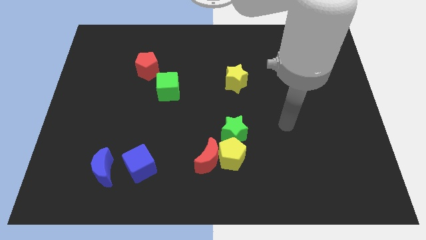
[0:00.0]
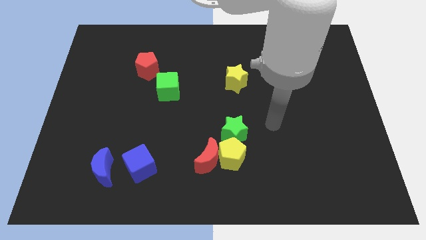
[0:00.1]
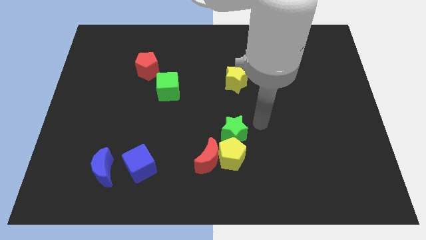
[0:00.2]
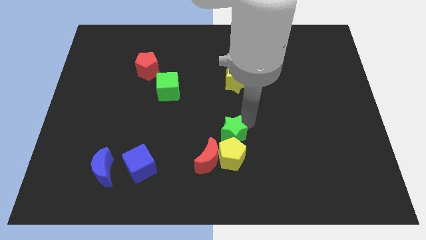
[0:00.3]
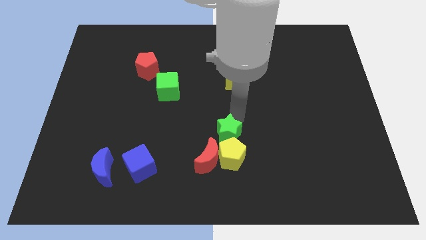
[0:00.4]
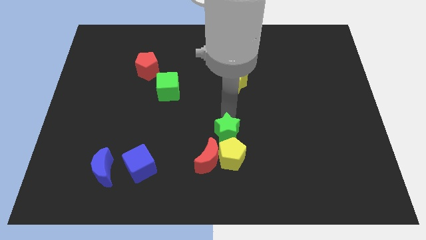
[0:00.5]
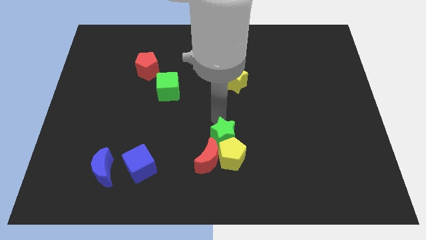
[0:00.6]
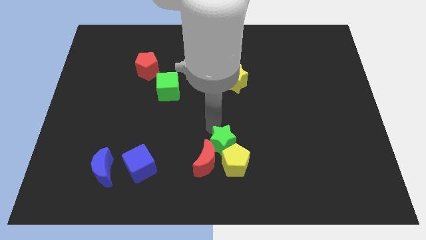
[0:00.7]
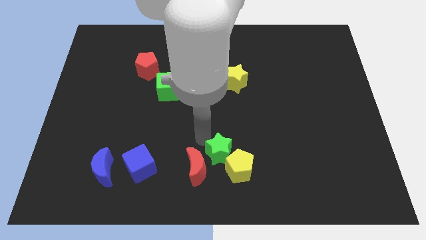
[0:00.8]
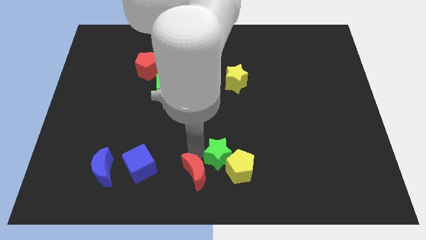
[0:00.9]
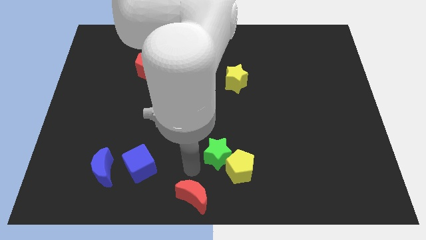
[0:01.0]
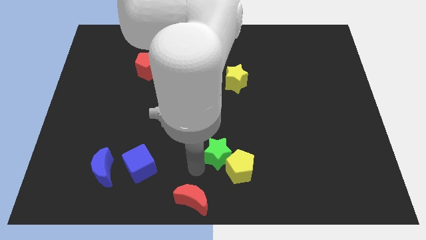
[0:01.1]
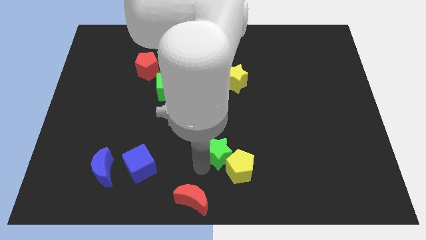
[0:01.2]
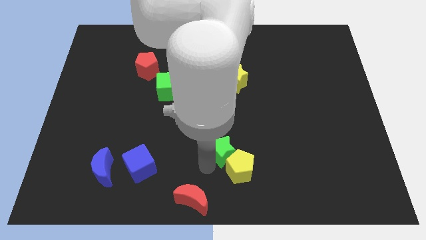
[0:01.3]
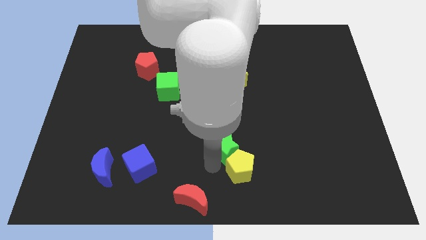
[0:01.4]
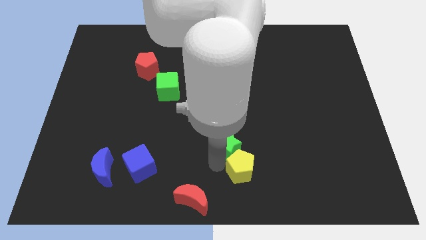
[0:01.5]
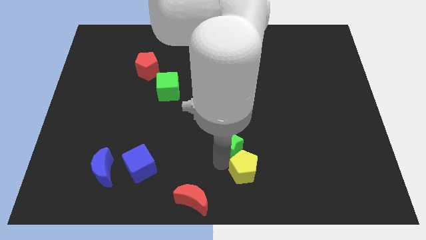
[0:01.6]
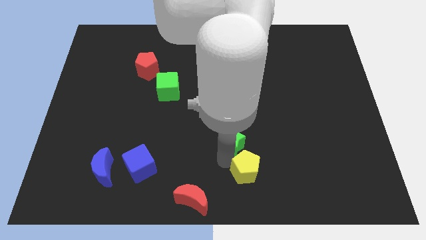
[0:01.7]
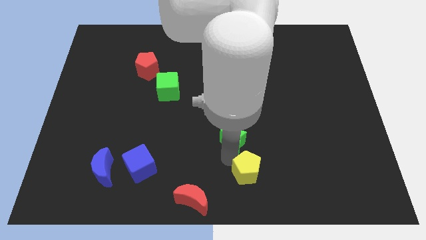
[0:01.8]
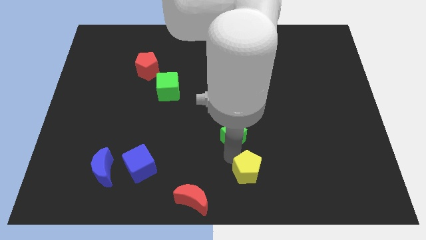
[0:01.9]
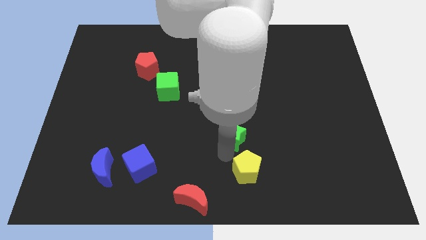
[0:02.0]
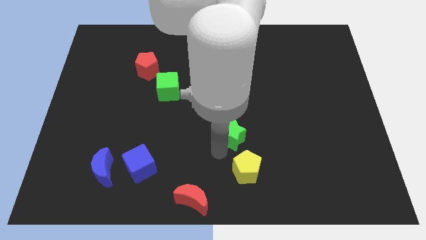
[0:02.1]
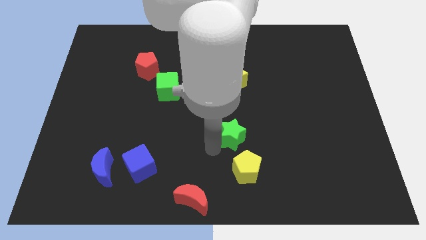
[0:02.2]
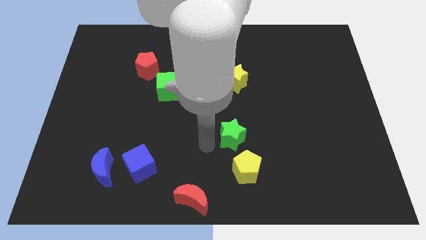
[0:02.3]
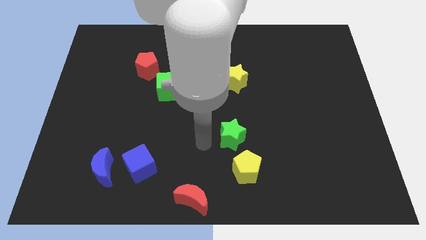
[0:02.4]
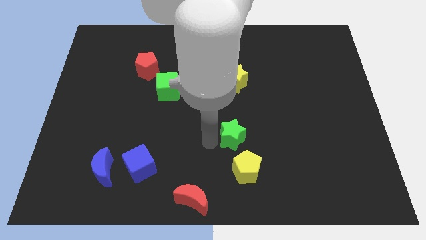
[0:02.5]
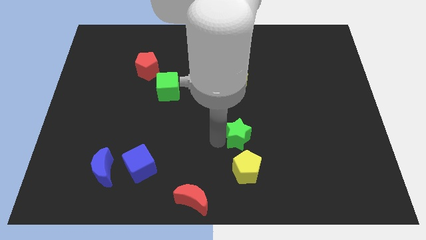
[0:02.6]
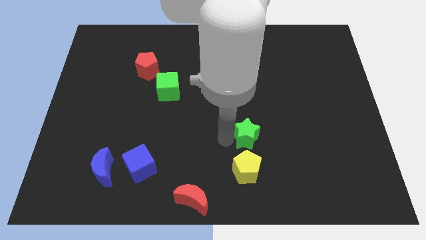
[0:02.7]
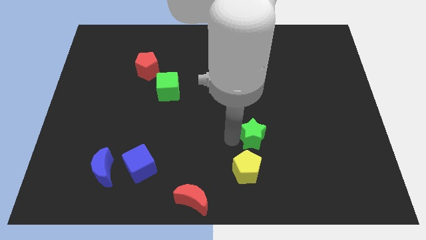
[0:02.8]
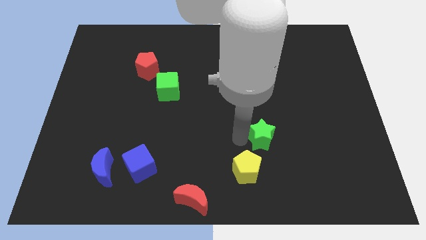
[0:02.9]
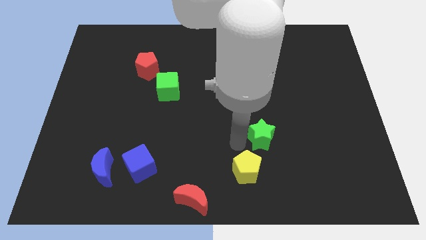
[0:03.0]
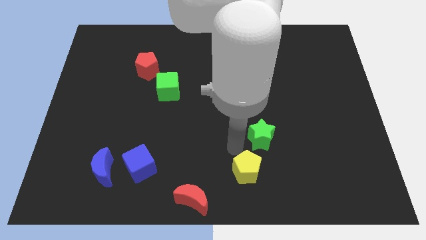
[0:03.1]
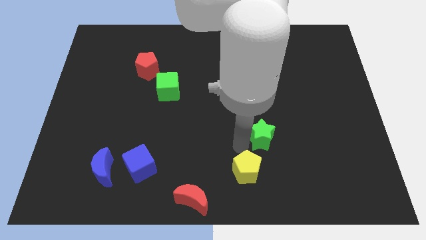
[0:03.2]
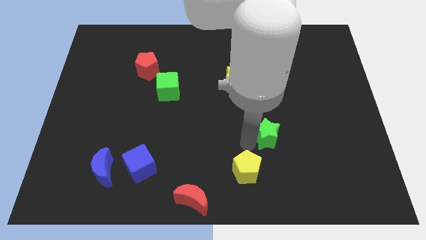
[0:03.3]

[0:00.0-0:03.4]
move the green star slightly to the right

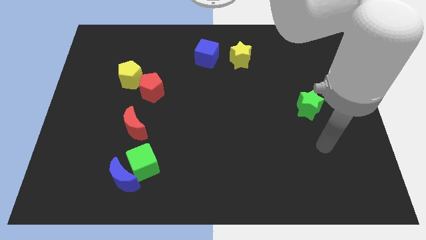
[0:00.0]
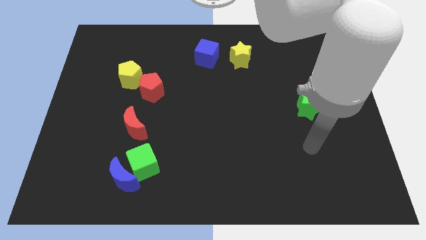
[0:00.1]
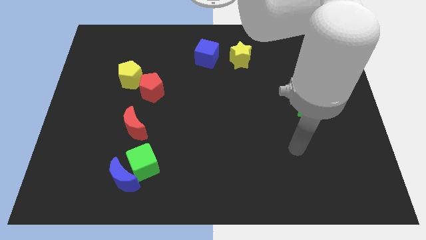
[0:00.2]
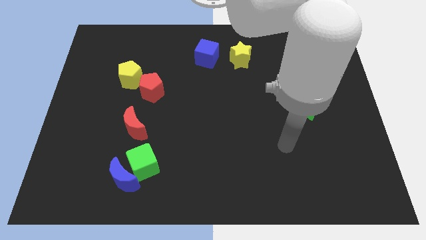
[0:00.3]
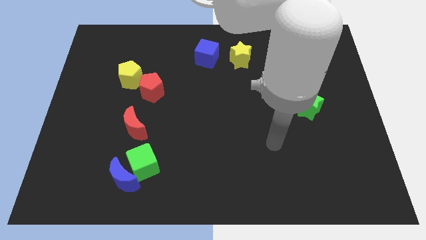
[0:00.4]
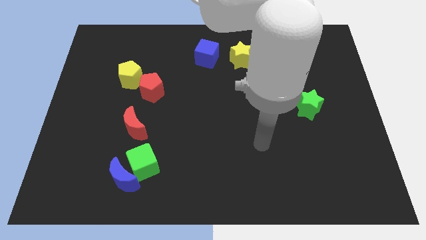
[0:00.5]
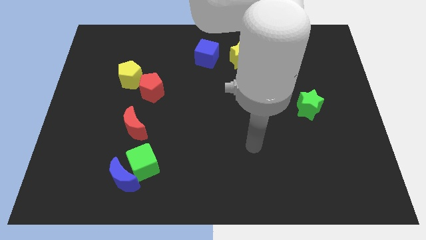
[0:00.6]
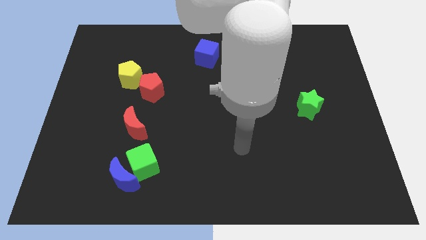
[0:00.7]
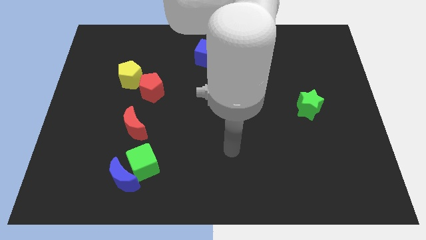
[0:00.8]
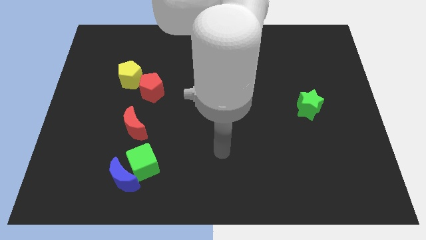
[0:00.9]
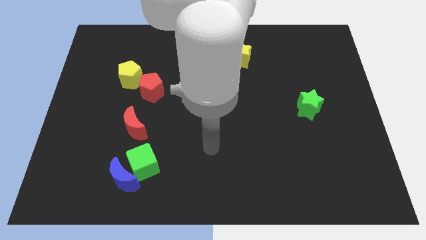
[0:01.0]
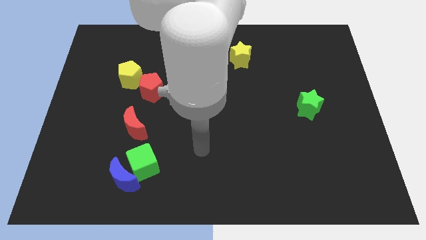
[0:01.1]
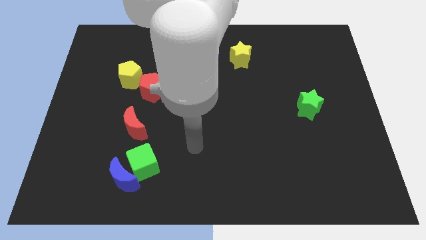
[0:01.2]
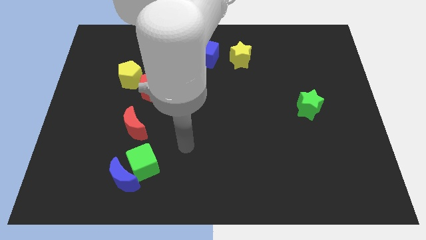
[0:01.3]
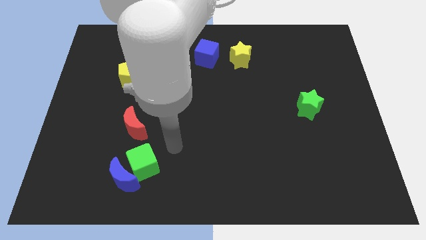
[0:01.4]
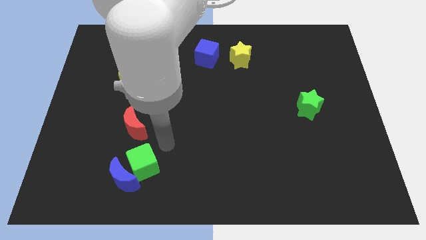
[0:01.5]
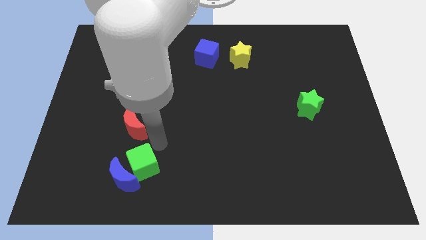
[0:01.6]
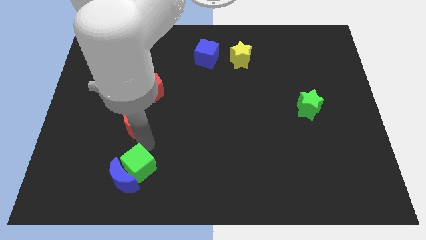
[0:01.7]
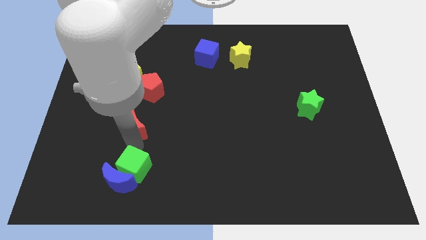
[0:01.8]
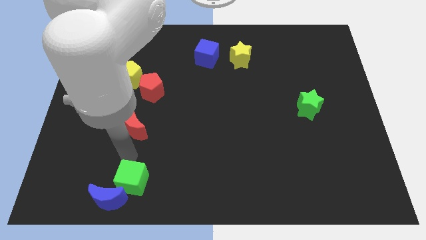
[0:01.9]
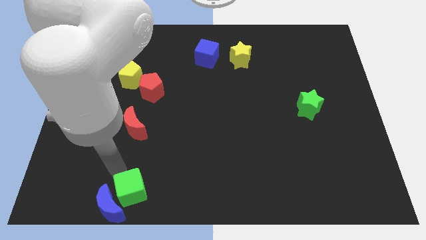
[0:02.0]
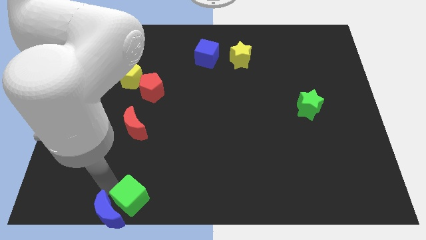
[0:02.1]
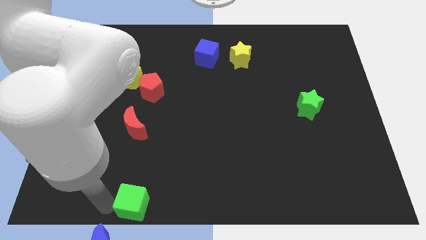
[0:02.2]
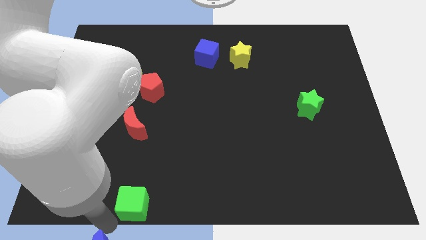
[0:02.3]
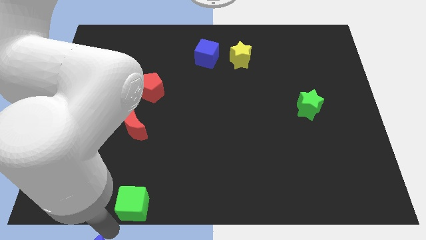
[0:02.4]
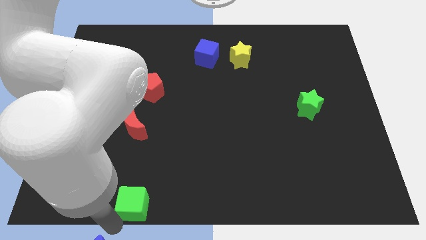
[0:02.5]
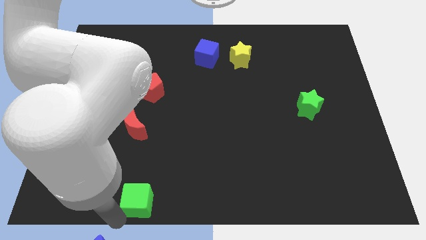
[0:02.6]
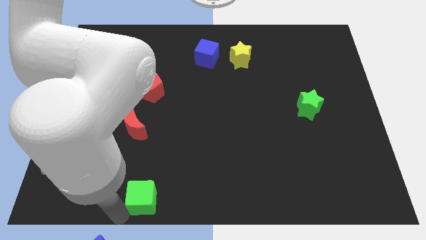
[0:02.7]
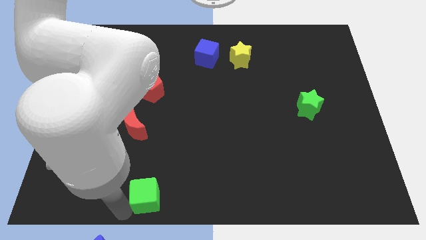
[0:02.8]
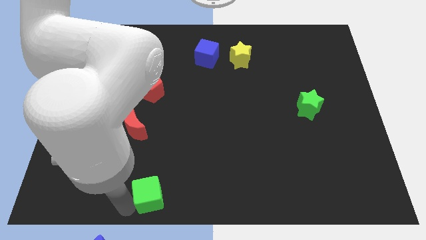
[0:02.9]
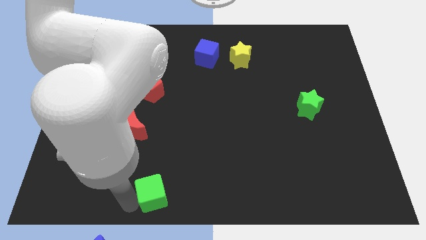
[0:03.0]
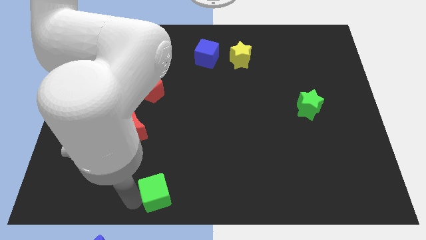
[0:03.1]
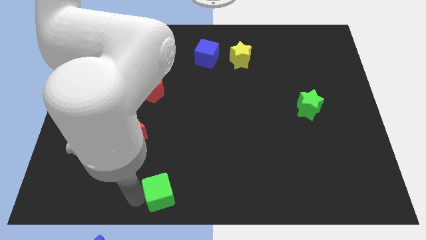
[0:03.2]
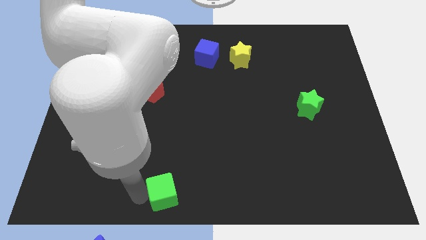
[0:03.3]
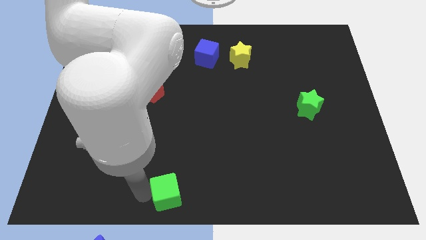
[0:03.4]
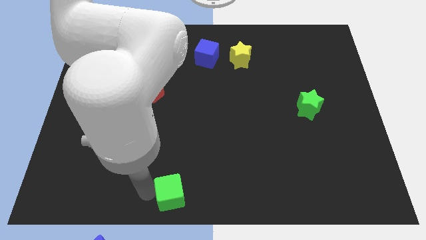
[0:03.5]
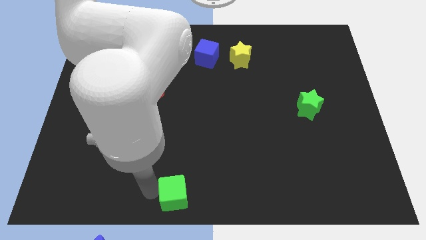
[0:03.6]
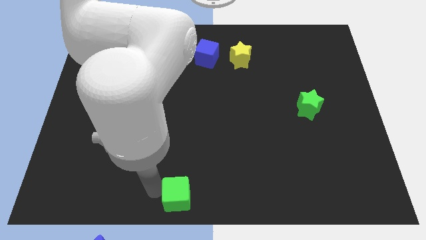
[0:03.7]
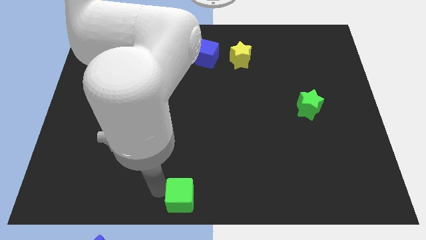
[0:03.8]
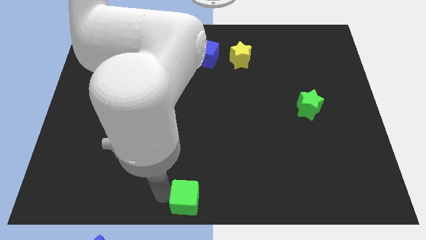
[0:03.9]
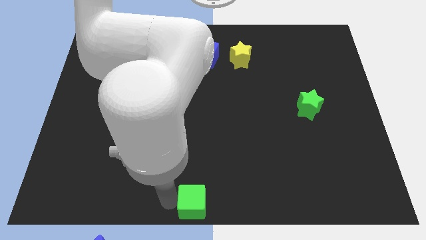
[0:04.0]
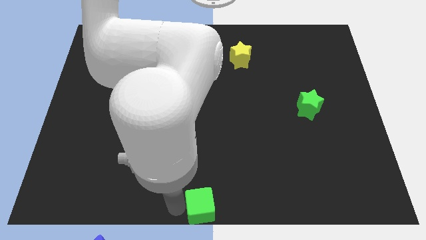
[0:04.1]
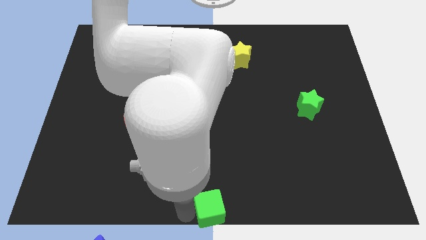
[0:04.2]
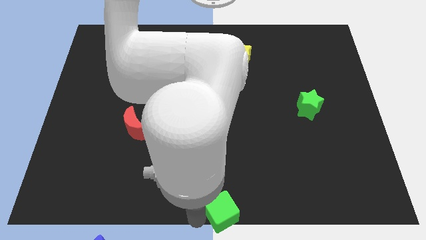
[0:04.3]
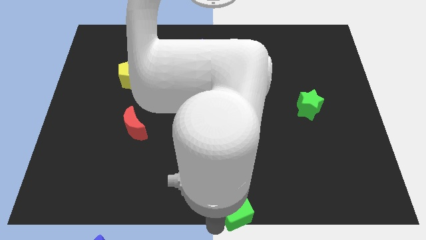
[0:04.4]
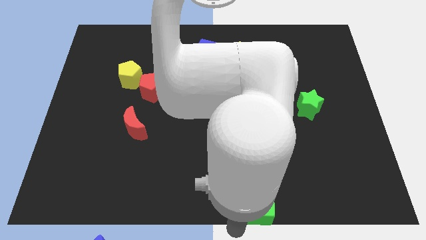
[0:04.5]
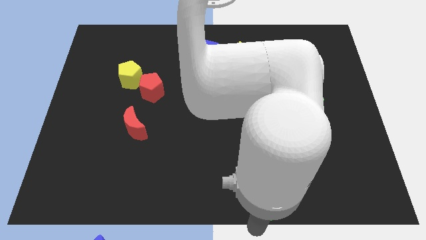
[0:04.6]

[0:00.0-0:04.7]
slide the green cube right

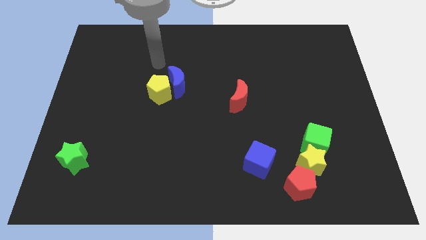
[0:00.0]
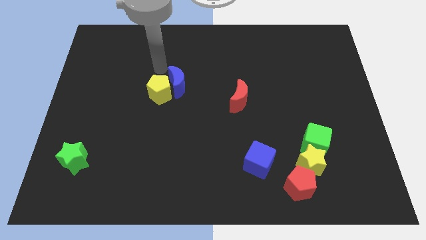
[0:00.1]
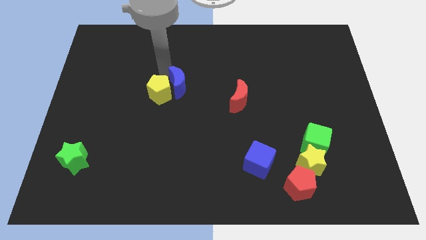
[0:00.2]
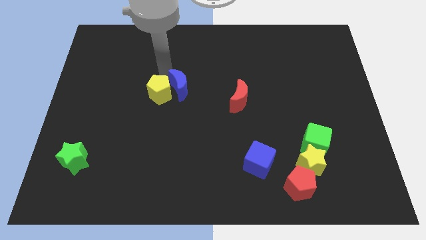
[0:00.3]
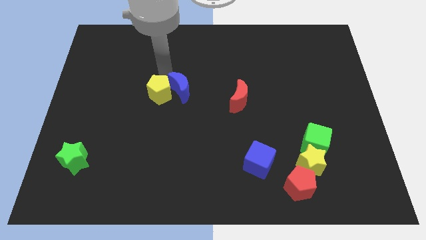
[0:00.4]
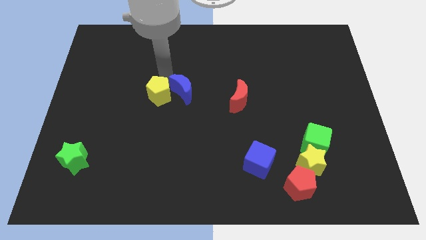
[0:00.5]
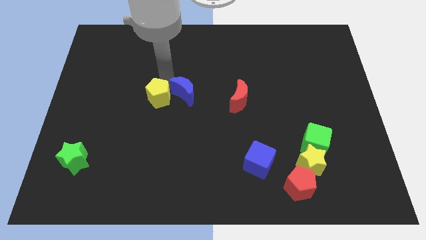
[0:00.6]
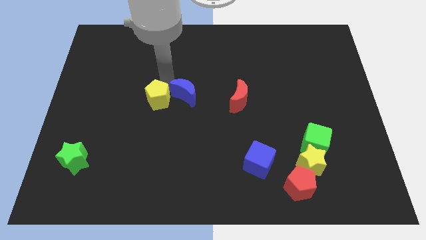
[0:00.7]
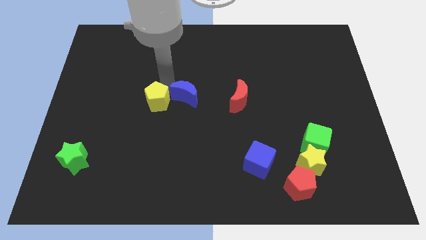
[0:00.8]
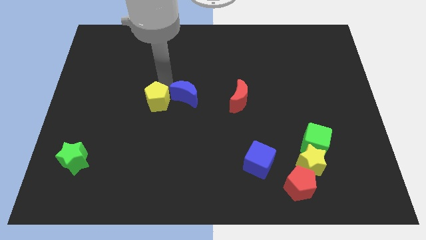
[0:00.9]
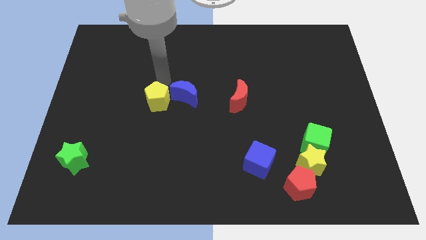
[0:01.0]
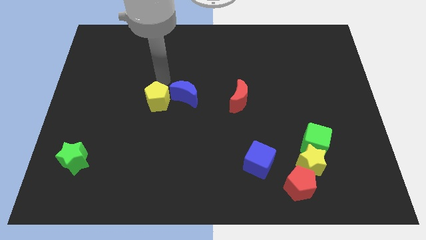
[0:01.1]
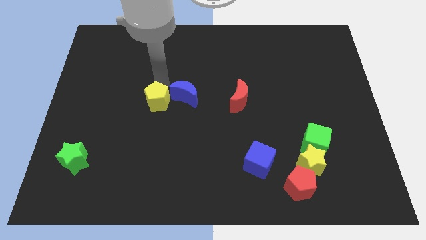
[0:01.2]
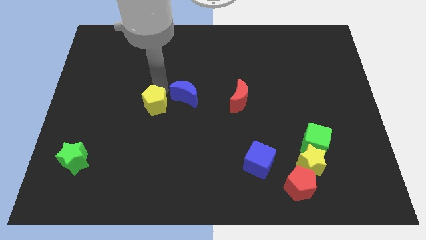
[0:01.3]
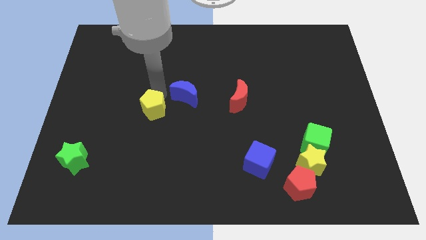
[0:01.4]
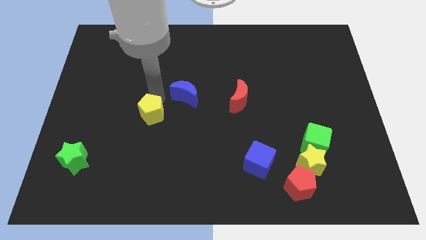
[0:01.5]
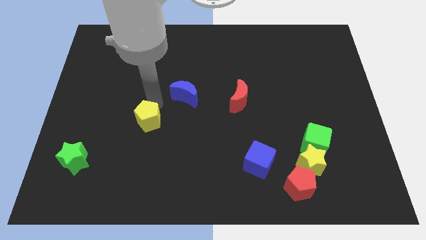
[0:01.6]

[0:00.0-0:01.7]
move the yellow pentagon downwards a bit
